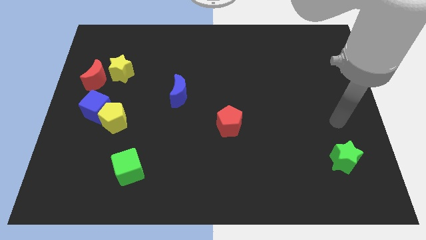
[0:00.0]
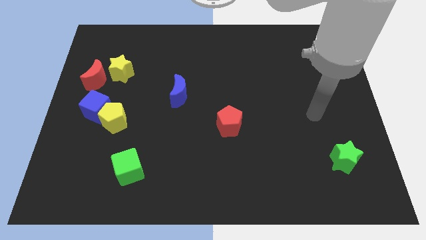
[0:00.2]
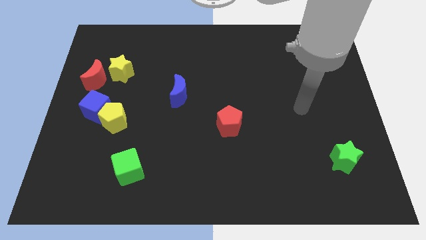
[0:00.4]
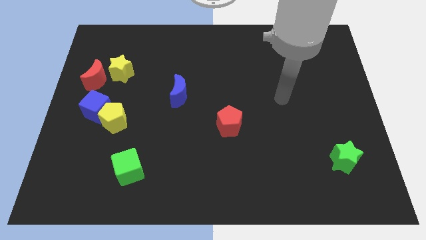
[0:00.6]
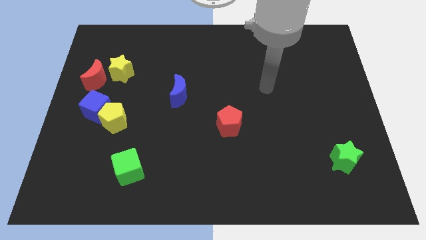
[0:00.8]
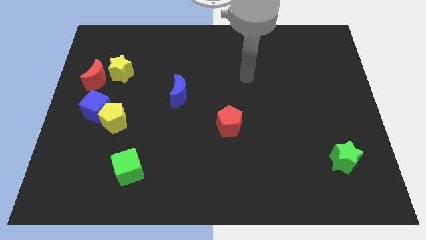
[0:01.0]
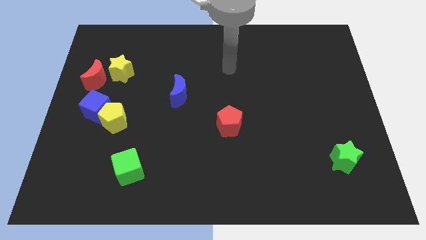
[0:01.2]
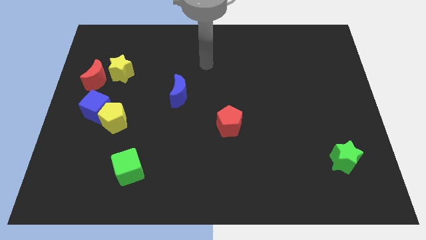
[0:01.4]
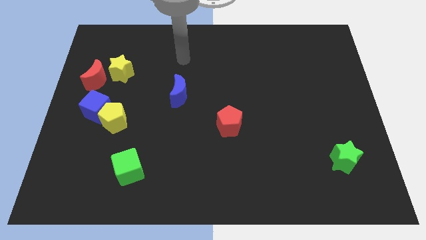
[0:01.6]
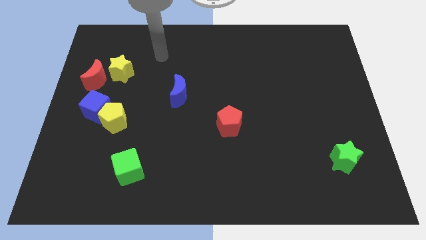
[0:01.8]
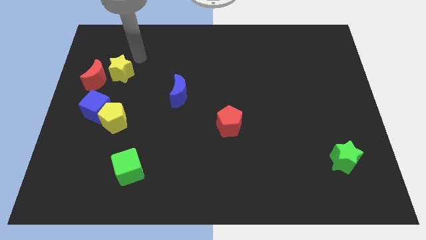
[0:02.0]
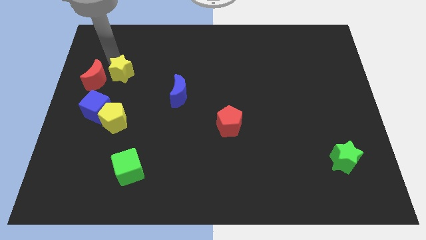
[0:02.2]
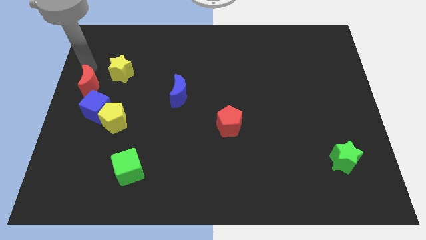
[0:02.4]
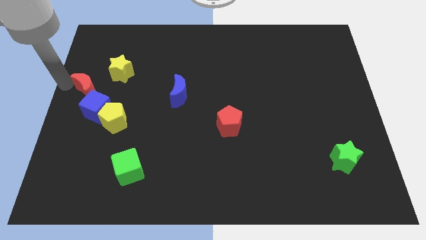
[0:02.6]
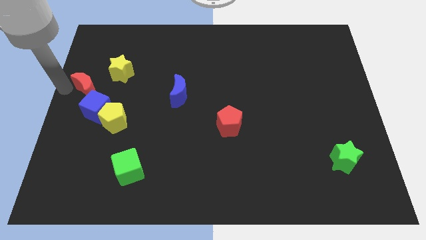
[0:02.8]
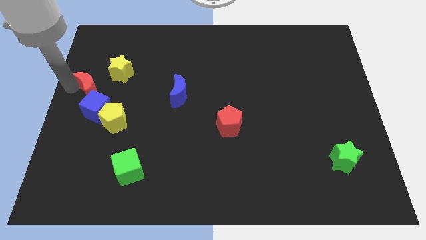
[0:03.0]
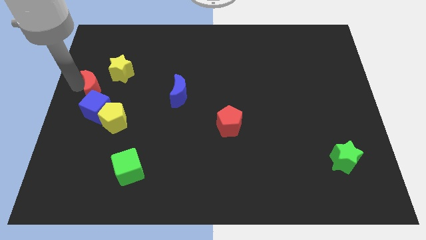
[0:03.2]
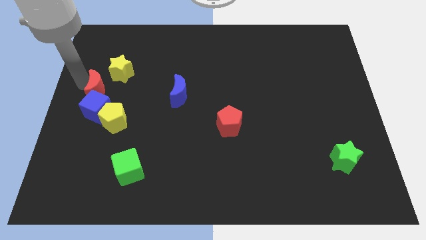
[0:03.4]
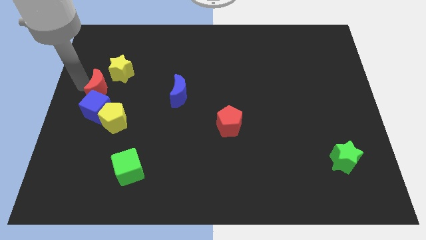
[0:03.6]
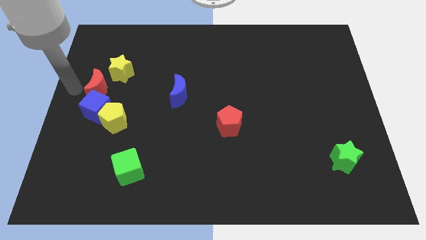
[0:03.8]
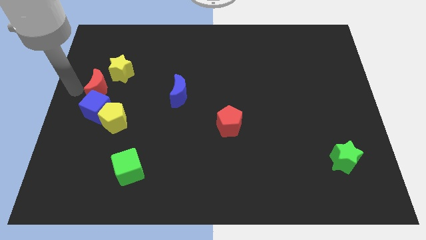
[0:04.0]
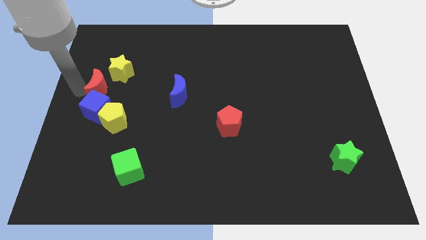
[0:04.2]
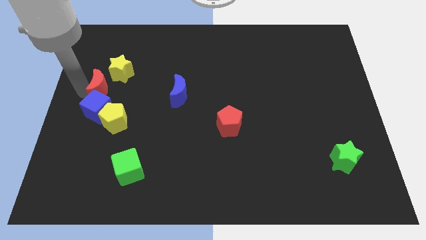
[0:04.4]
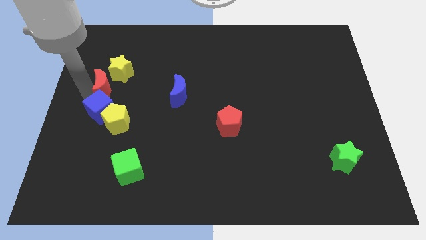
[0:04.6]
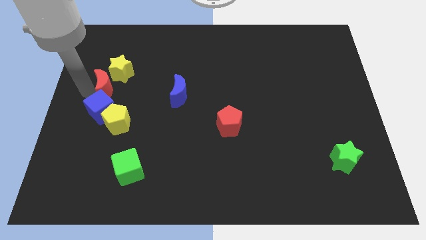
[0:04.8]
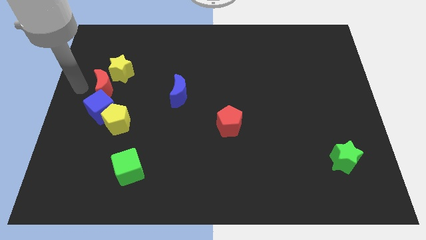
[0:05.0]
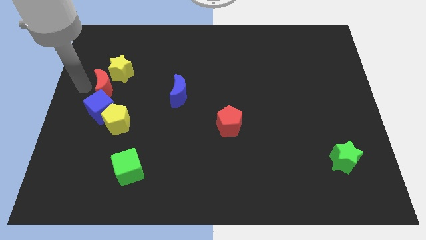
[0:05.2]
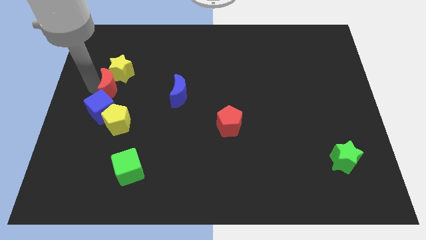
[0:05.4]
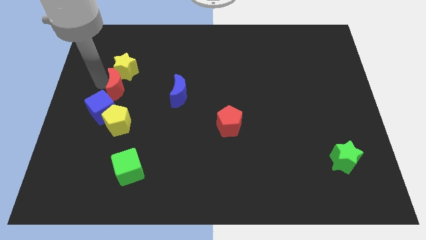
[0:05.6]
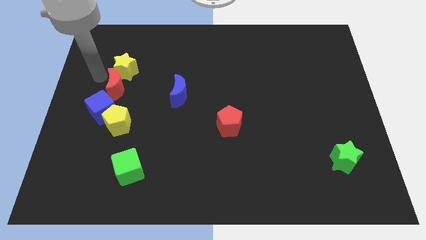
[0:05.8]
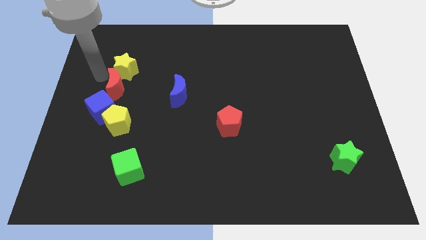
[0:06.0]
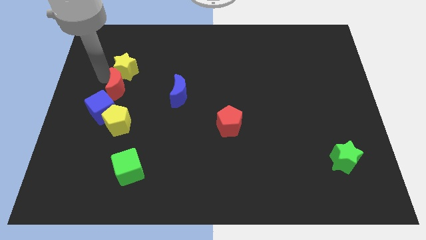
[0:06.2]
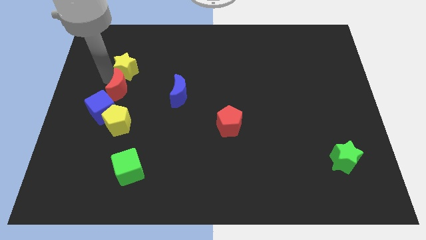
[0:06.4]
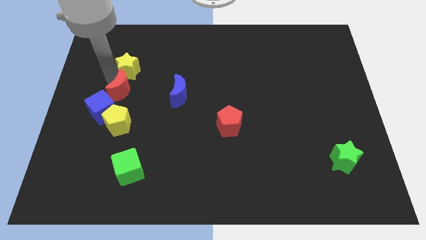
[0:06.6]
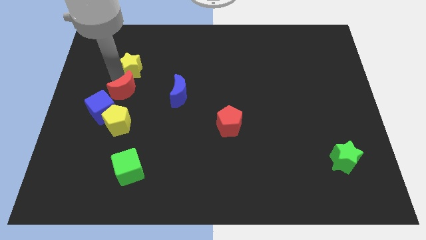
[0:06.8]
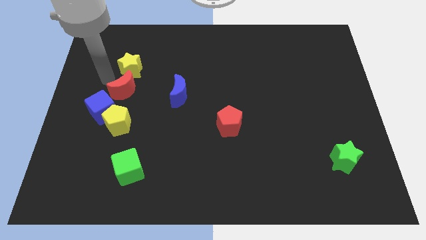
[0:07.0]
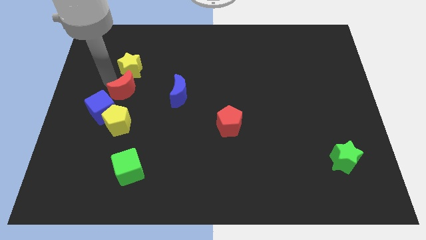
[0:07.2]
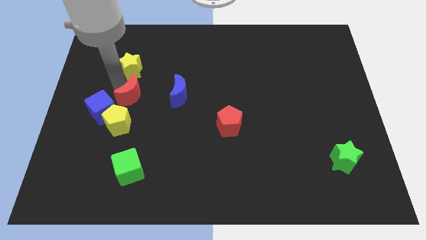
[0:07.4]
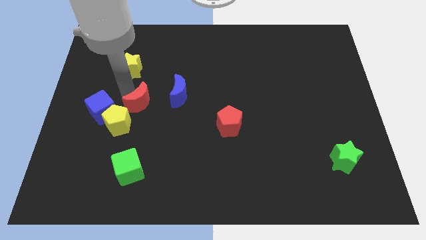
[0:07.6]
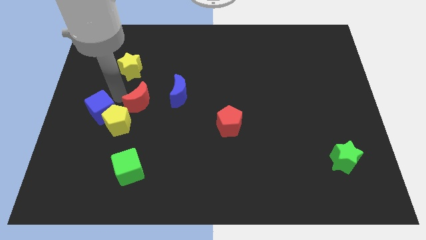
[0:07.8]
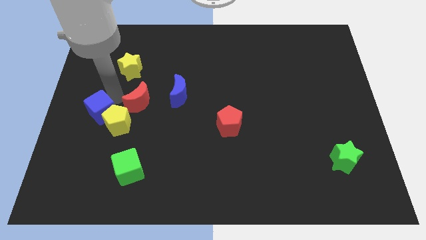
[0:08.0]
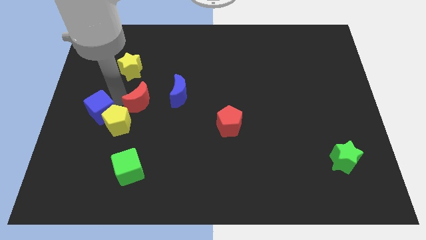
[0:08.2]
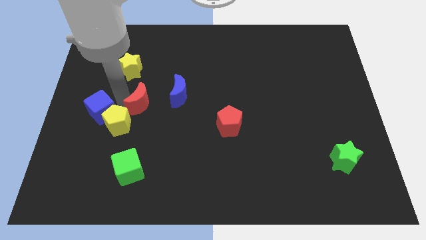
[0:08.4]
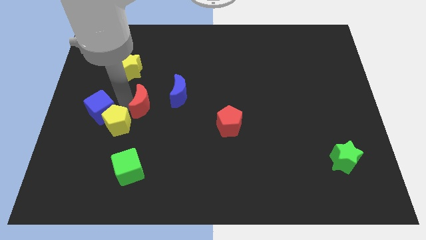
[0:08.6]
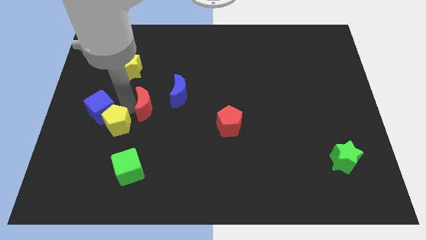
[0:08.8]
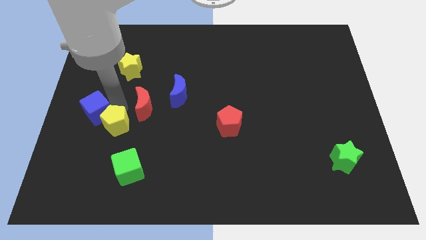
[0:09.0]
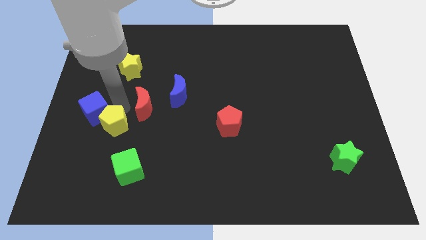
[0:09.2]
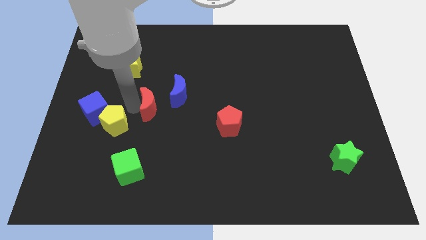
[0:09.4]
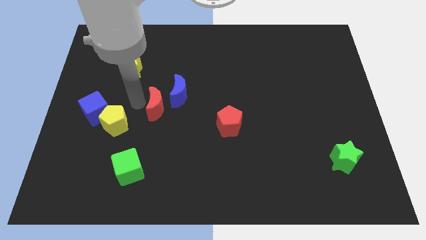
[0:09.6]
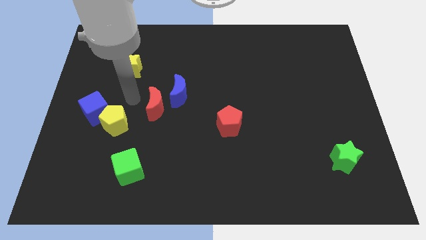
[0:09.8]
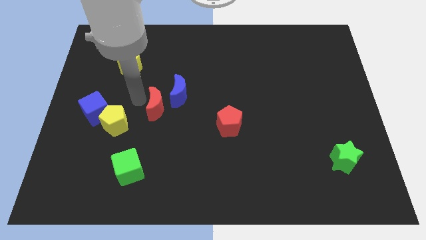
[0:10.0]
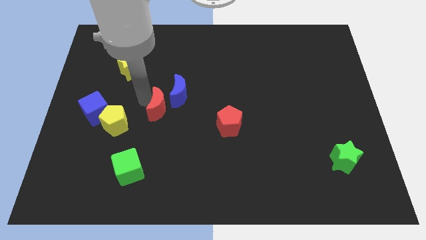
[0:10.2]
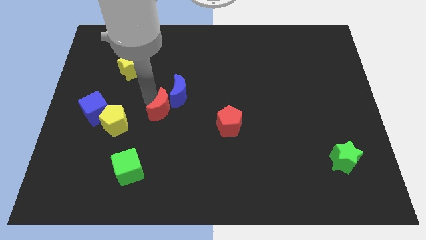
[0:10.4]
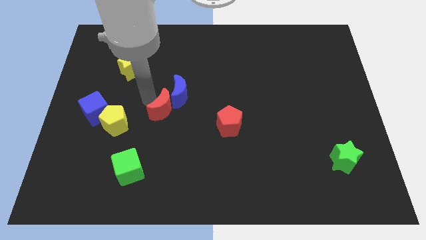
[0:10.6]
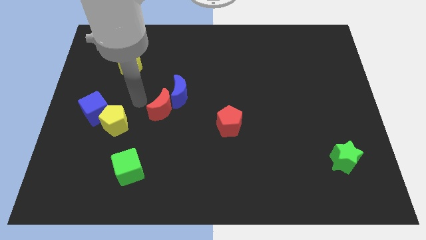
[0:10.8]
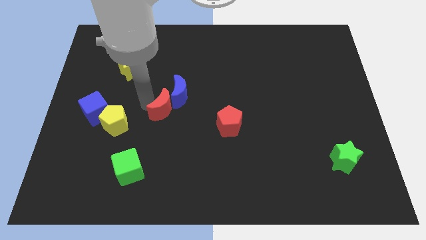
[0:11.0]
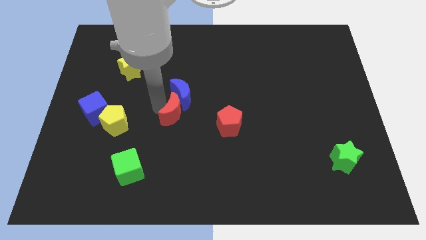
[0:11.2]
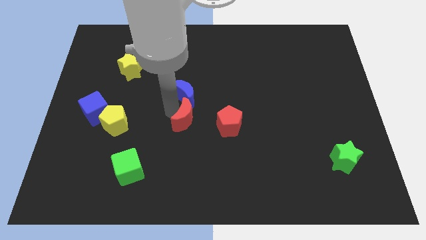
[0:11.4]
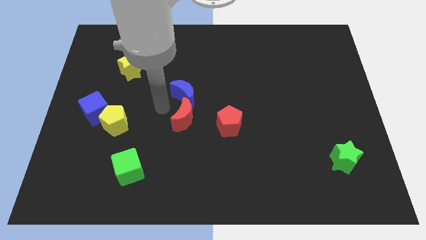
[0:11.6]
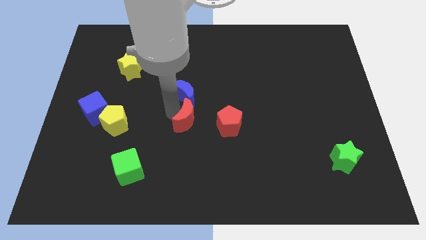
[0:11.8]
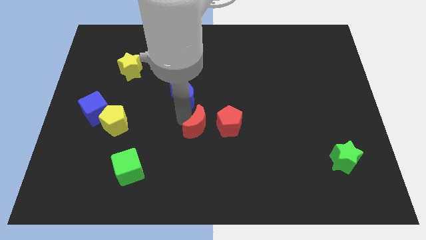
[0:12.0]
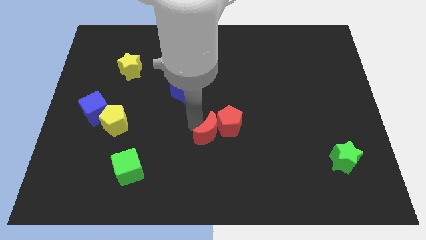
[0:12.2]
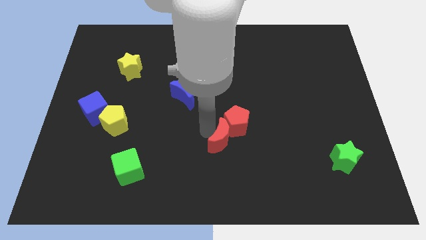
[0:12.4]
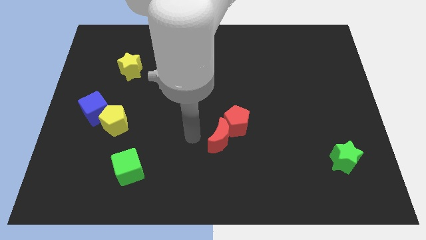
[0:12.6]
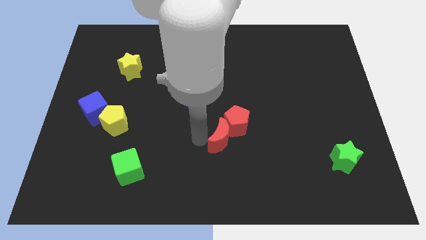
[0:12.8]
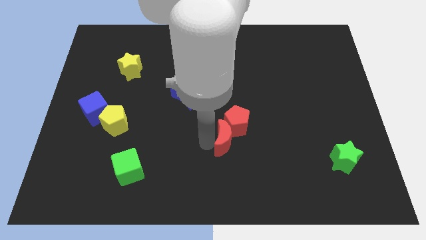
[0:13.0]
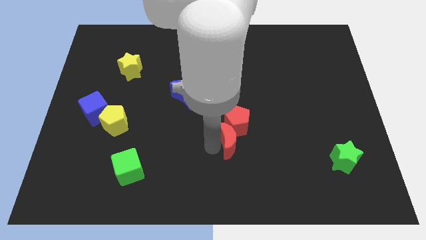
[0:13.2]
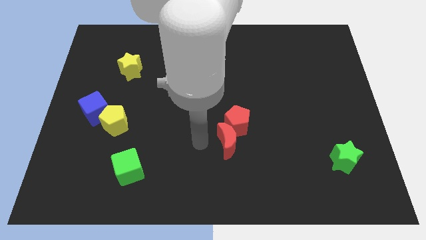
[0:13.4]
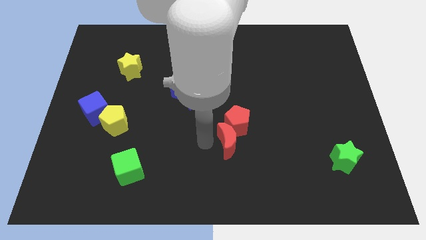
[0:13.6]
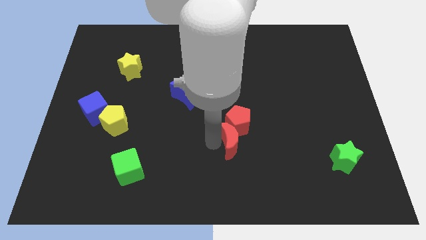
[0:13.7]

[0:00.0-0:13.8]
move the red moon to the bottom right side of the red pentagon
